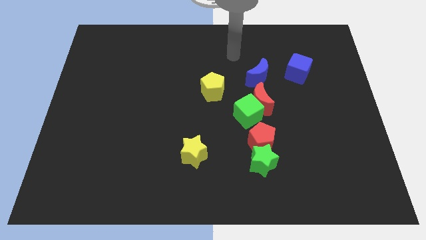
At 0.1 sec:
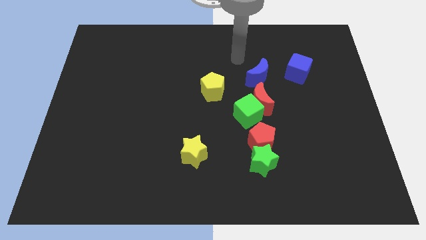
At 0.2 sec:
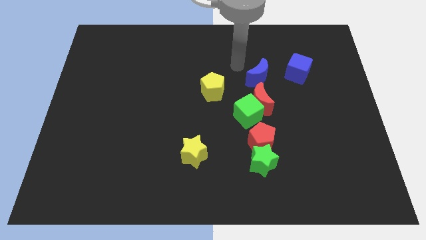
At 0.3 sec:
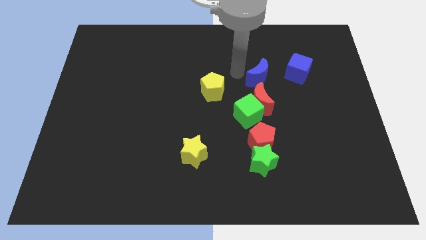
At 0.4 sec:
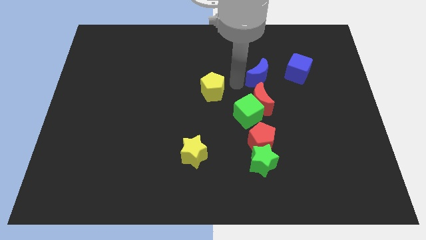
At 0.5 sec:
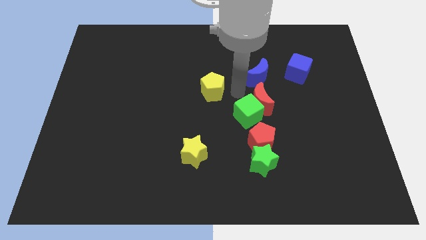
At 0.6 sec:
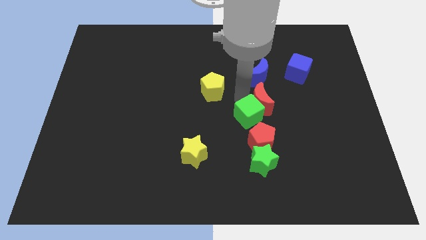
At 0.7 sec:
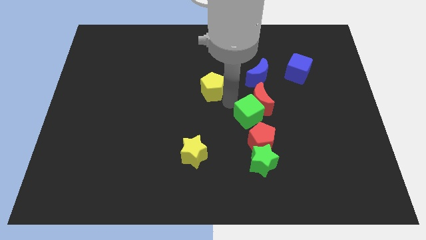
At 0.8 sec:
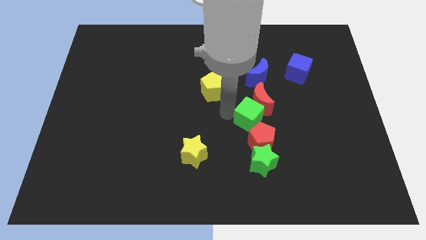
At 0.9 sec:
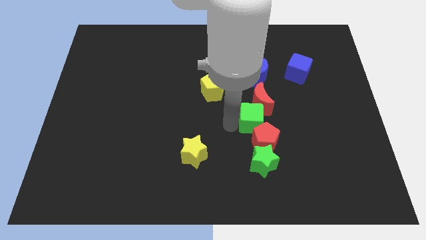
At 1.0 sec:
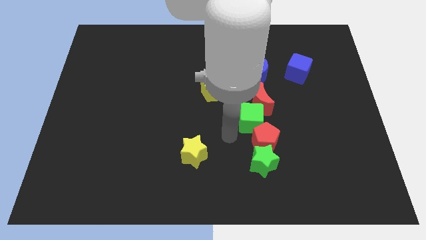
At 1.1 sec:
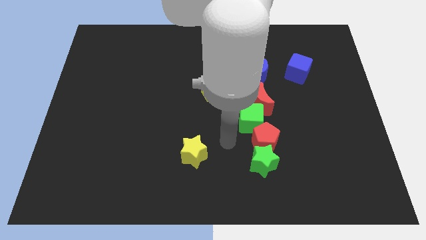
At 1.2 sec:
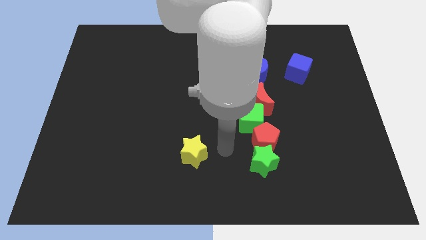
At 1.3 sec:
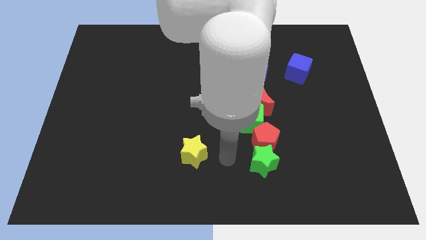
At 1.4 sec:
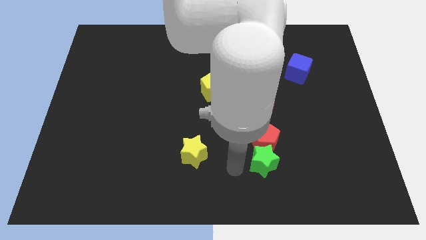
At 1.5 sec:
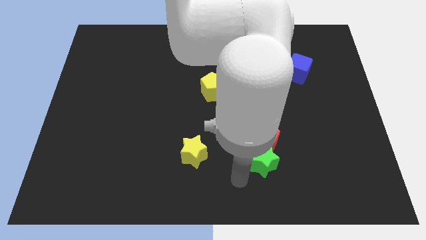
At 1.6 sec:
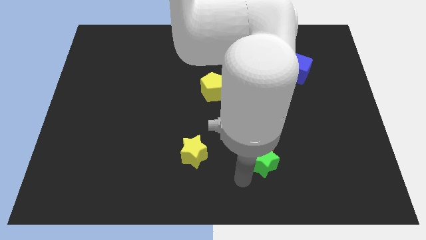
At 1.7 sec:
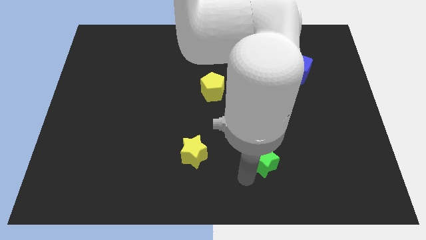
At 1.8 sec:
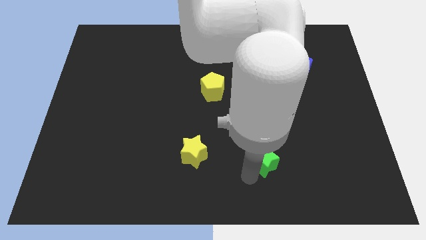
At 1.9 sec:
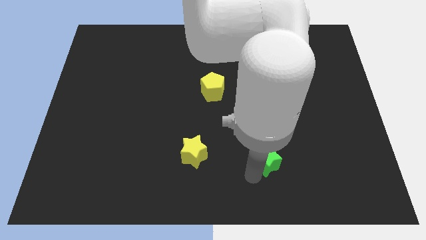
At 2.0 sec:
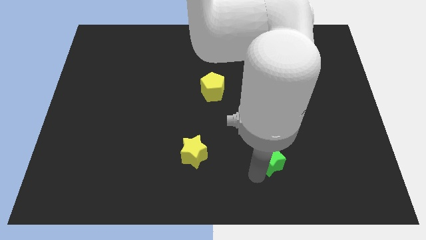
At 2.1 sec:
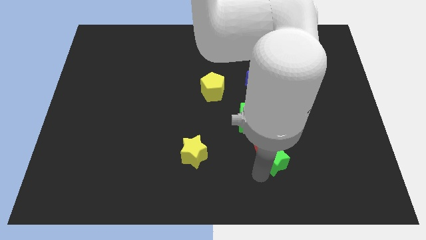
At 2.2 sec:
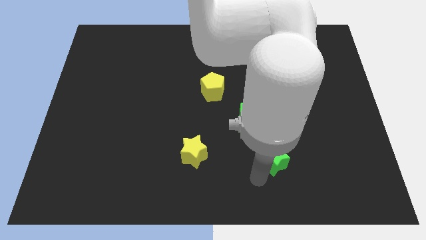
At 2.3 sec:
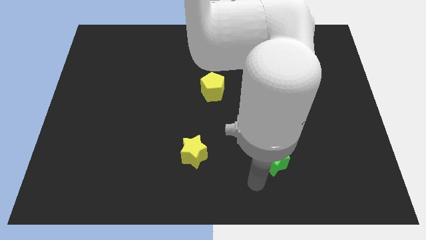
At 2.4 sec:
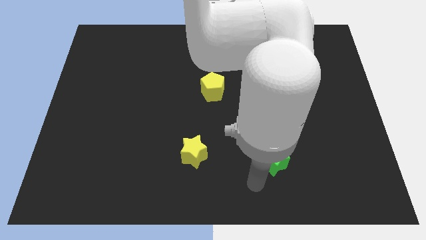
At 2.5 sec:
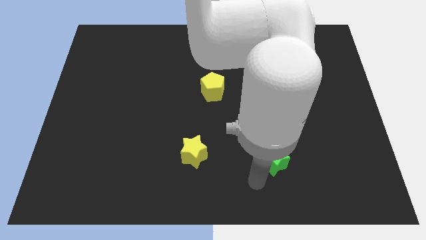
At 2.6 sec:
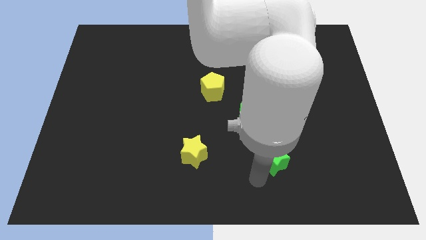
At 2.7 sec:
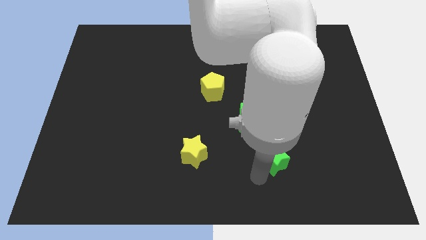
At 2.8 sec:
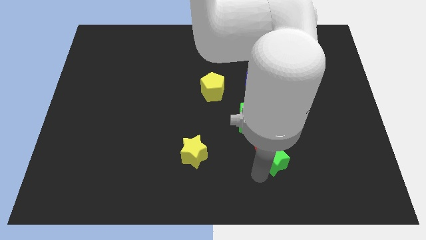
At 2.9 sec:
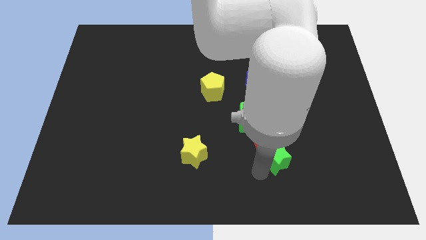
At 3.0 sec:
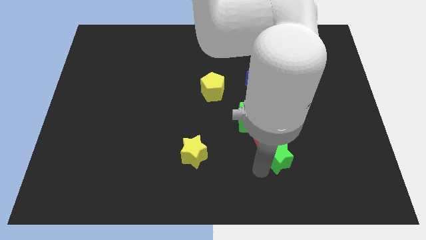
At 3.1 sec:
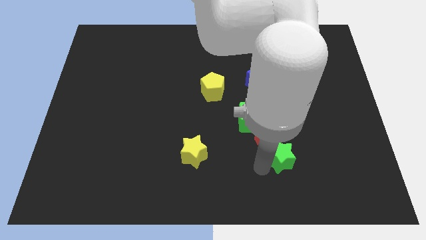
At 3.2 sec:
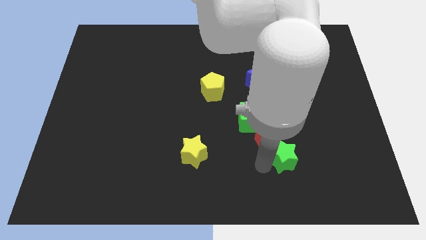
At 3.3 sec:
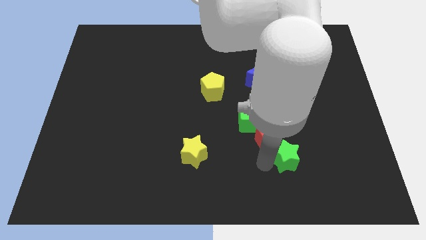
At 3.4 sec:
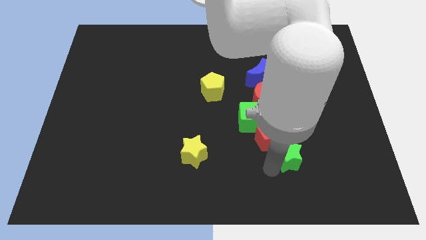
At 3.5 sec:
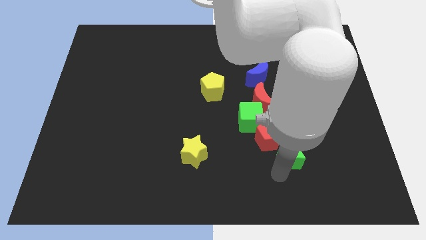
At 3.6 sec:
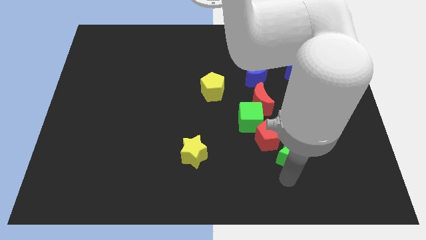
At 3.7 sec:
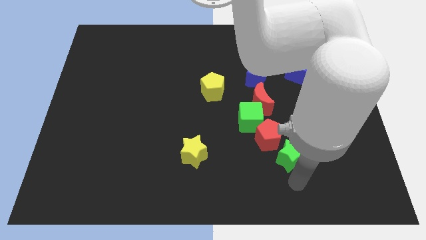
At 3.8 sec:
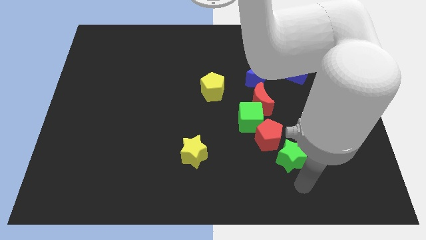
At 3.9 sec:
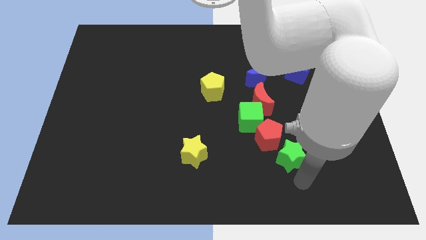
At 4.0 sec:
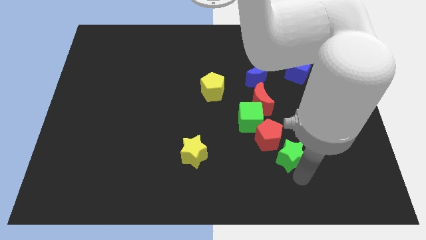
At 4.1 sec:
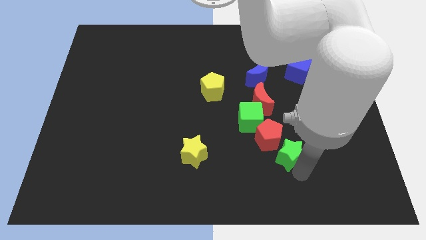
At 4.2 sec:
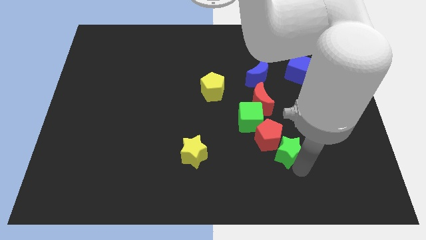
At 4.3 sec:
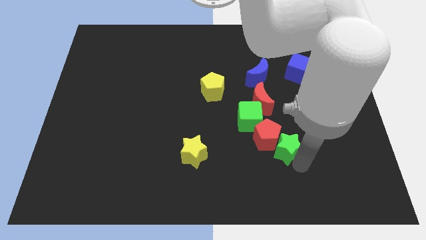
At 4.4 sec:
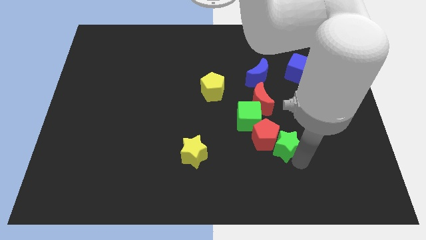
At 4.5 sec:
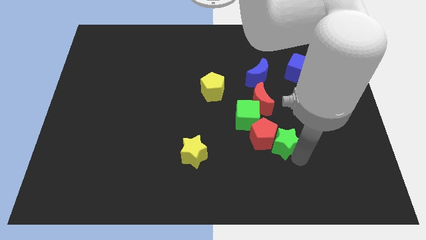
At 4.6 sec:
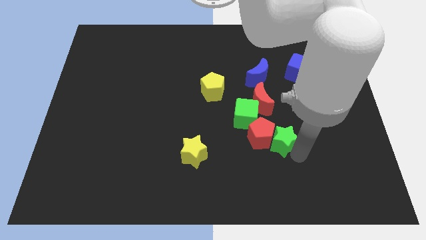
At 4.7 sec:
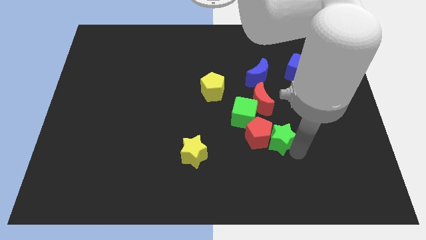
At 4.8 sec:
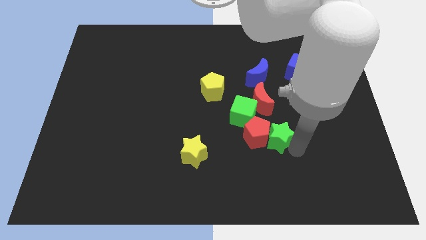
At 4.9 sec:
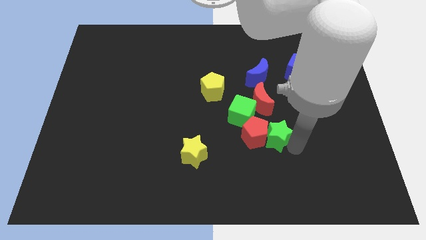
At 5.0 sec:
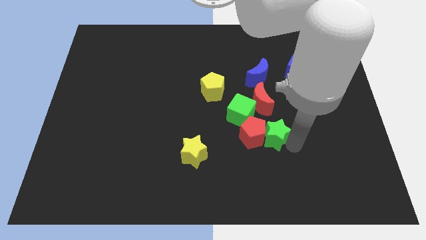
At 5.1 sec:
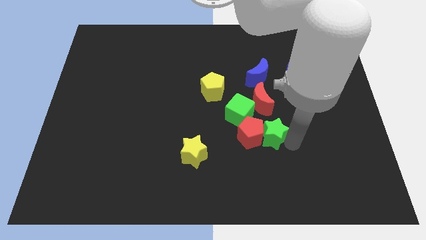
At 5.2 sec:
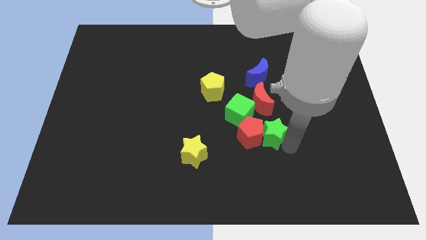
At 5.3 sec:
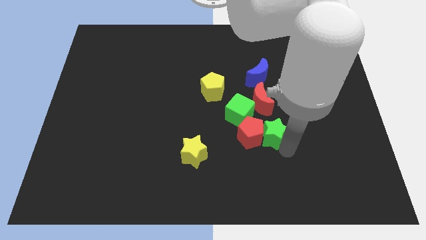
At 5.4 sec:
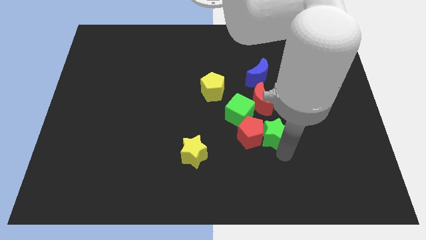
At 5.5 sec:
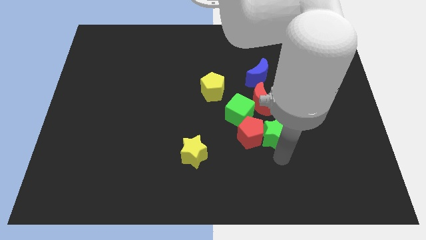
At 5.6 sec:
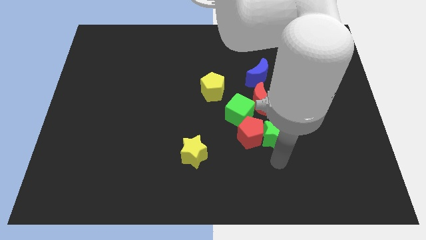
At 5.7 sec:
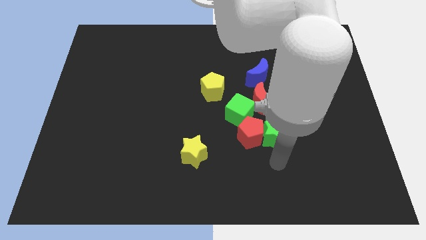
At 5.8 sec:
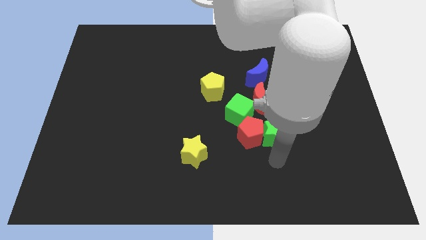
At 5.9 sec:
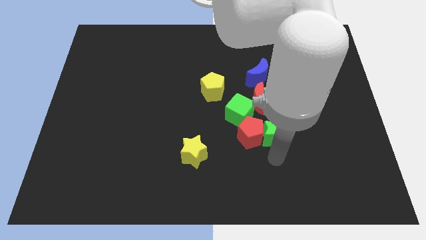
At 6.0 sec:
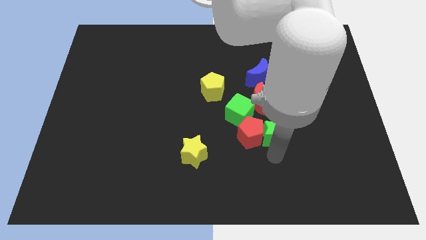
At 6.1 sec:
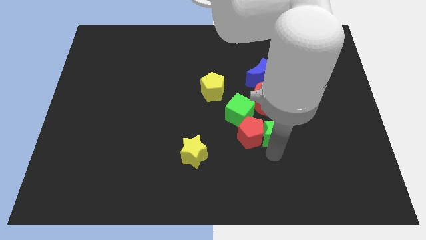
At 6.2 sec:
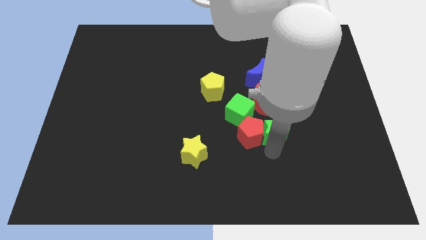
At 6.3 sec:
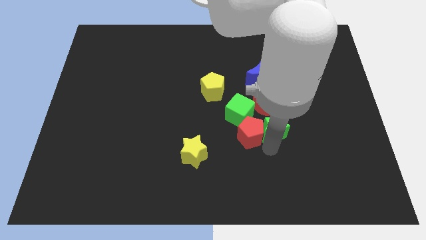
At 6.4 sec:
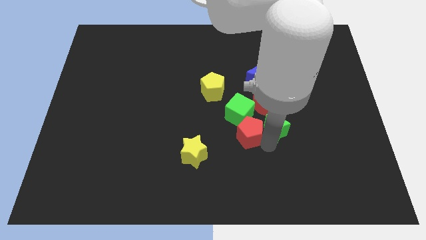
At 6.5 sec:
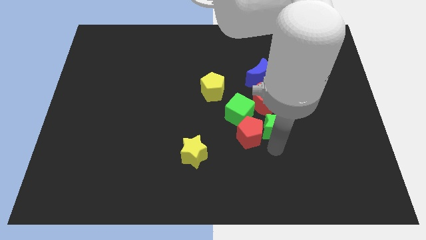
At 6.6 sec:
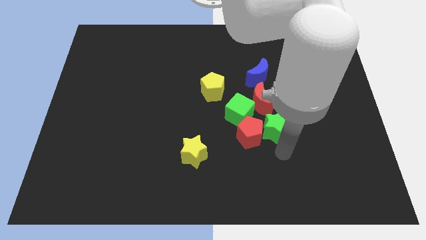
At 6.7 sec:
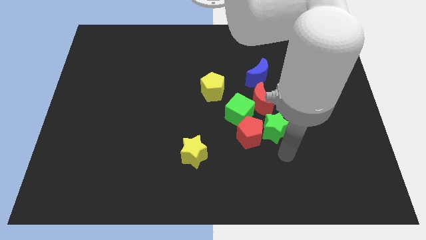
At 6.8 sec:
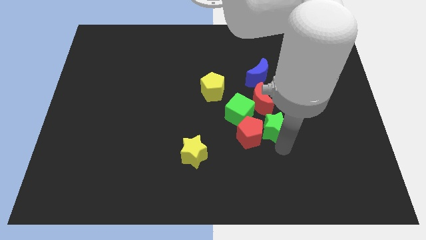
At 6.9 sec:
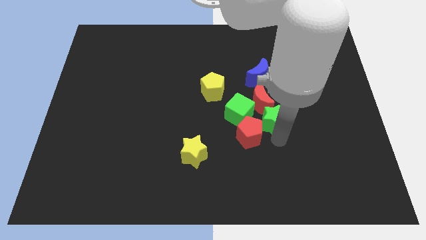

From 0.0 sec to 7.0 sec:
push the green star next to the red moon

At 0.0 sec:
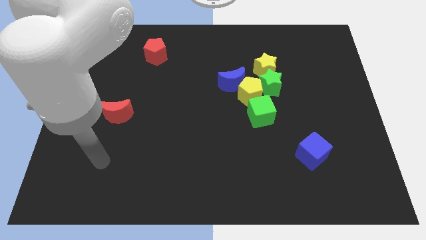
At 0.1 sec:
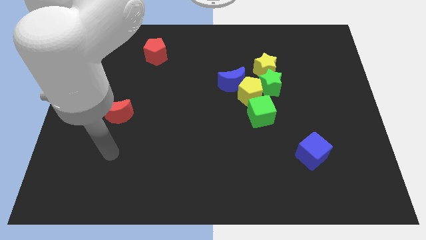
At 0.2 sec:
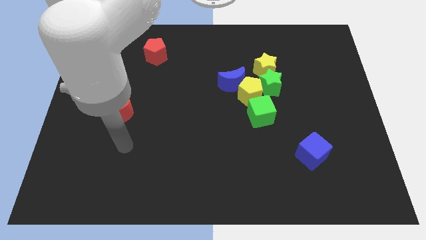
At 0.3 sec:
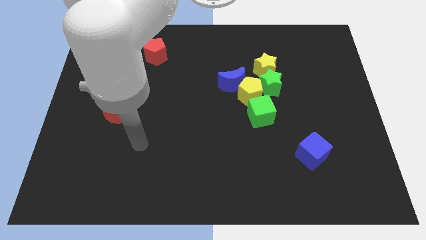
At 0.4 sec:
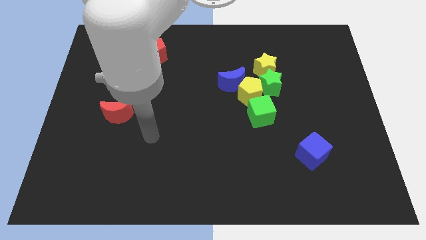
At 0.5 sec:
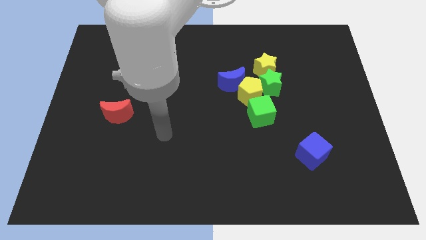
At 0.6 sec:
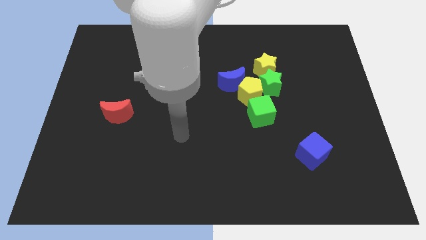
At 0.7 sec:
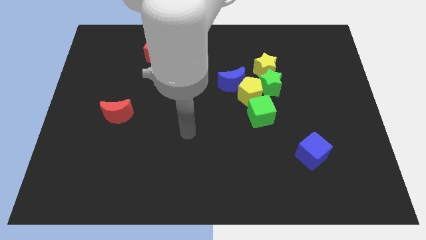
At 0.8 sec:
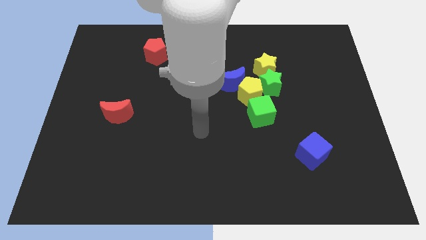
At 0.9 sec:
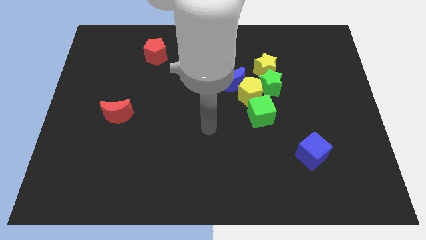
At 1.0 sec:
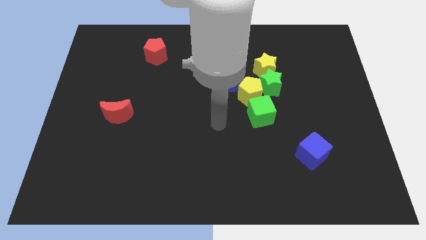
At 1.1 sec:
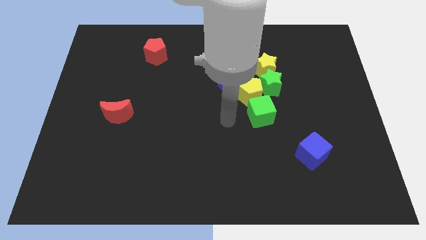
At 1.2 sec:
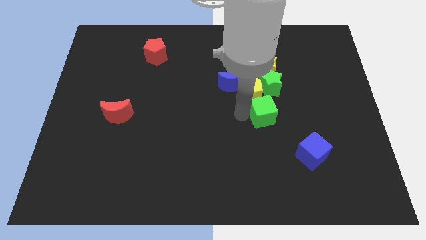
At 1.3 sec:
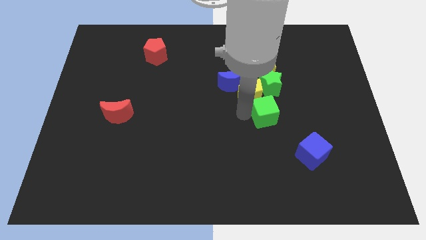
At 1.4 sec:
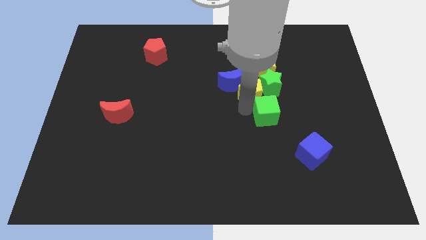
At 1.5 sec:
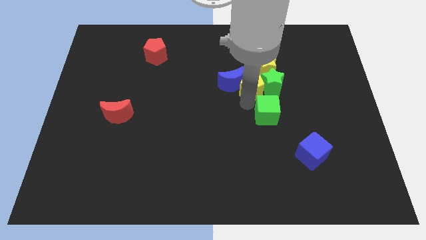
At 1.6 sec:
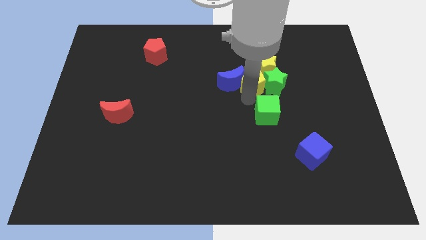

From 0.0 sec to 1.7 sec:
put the yellow pentagon next to the yellow star
